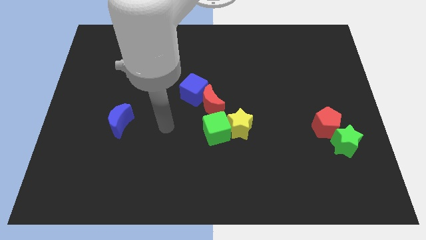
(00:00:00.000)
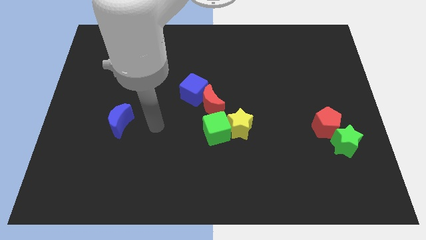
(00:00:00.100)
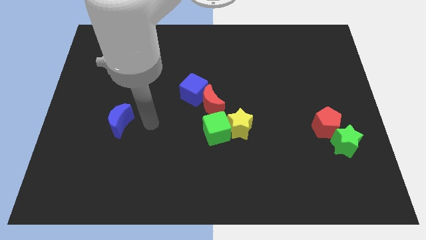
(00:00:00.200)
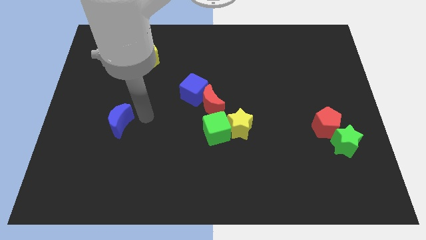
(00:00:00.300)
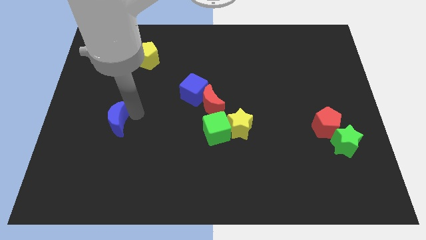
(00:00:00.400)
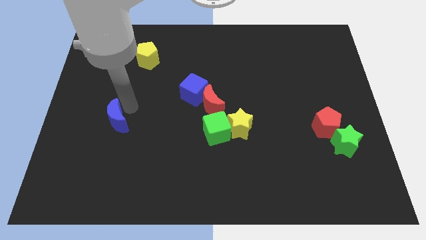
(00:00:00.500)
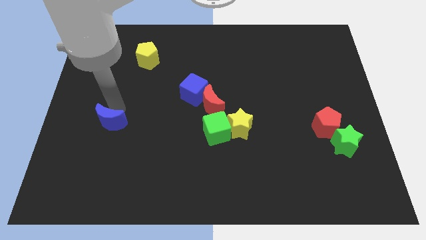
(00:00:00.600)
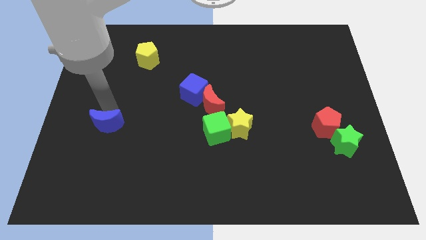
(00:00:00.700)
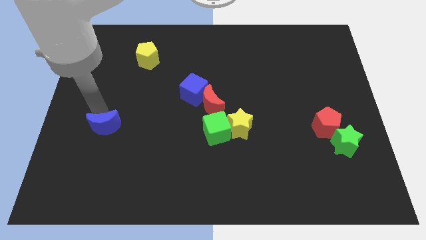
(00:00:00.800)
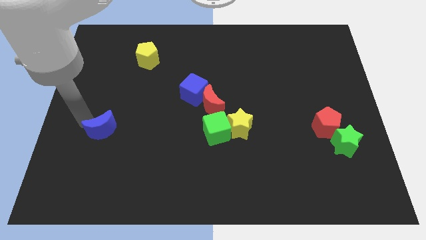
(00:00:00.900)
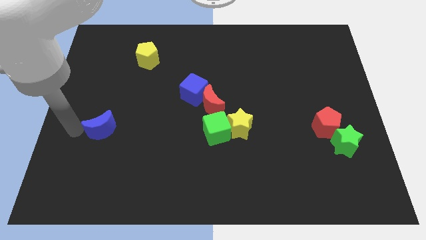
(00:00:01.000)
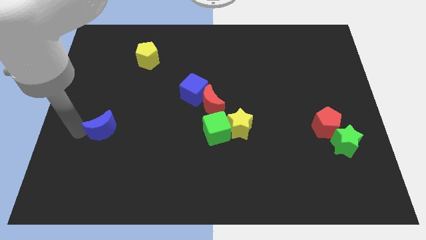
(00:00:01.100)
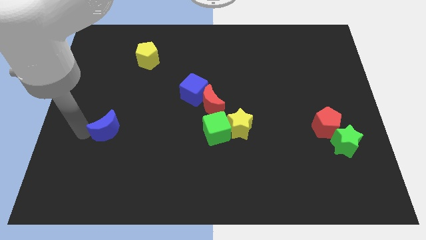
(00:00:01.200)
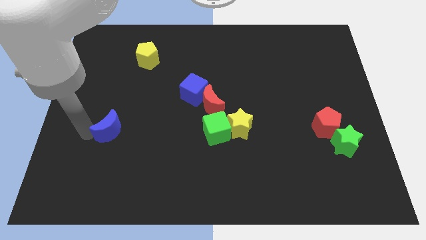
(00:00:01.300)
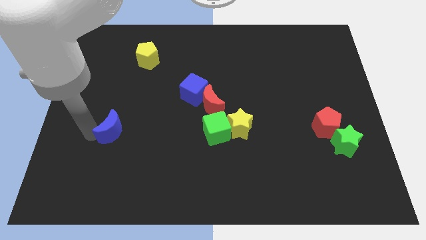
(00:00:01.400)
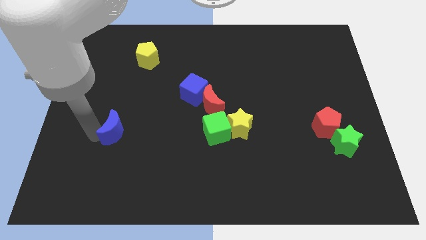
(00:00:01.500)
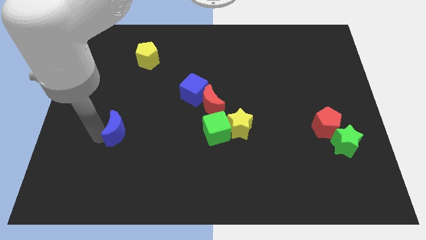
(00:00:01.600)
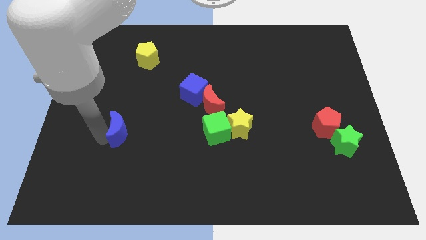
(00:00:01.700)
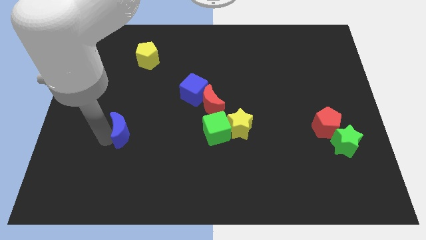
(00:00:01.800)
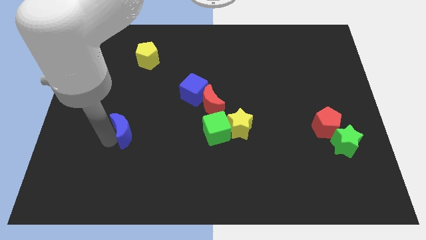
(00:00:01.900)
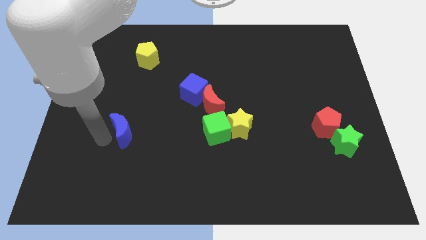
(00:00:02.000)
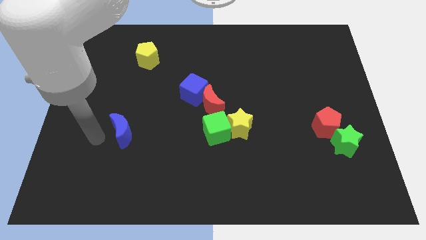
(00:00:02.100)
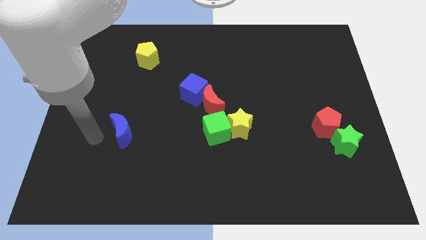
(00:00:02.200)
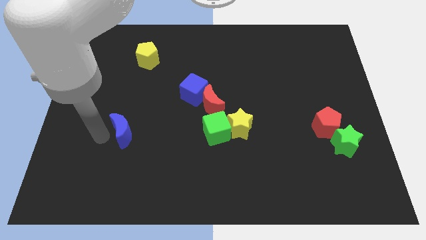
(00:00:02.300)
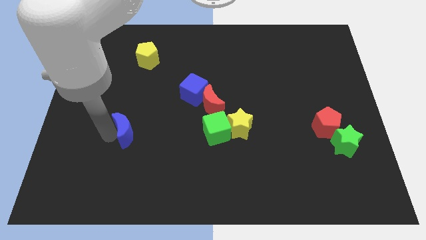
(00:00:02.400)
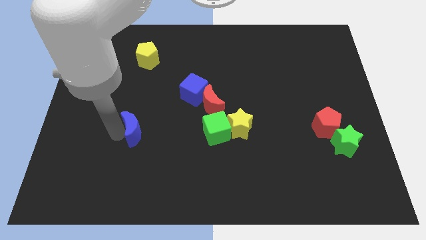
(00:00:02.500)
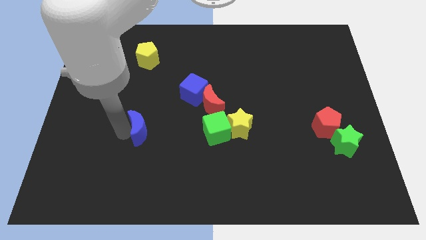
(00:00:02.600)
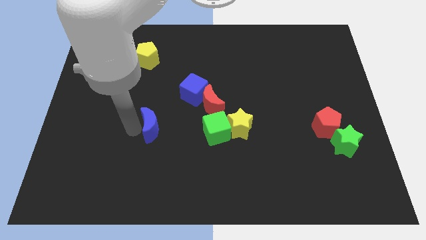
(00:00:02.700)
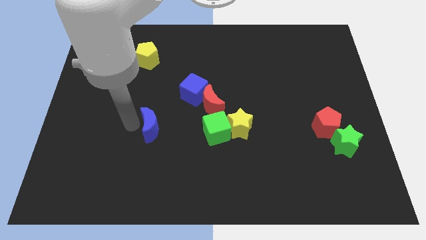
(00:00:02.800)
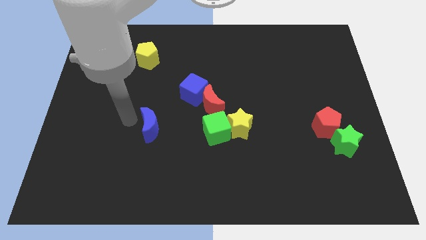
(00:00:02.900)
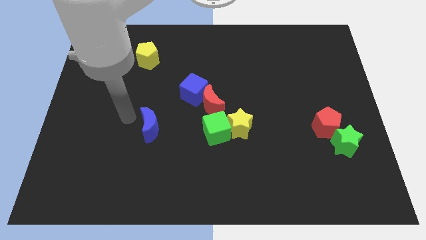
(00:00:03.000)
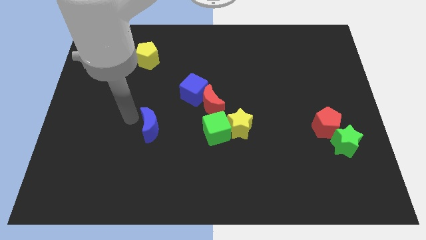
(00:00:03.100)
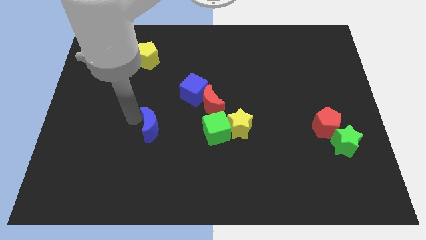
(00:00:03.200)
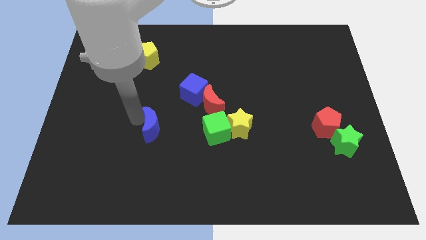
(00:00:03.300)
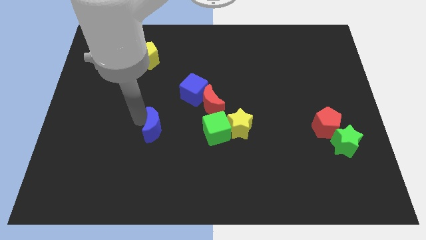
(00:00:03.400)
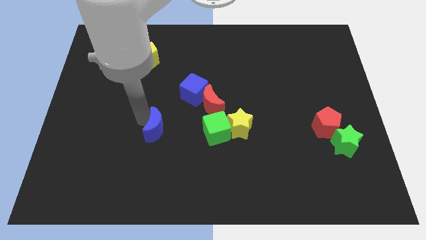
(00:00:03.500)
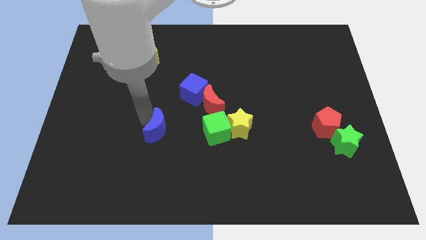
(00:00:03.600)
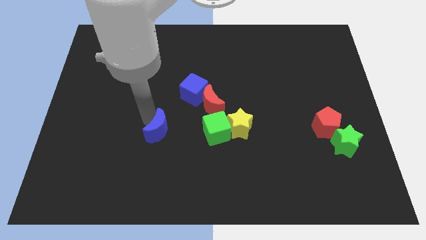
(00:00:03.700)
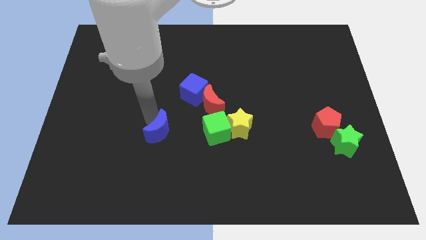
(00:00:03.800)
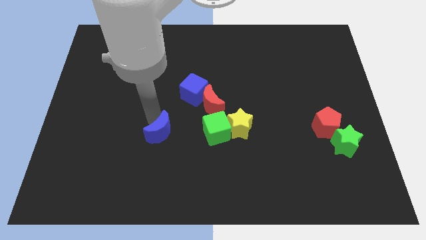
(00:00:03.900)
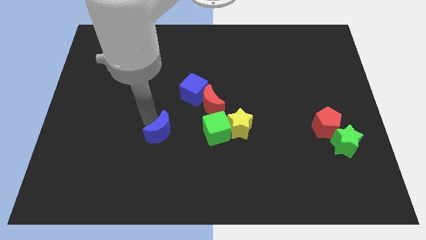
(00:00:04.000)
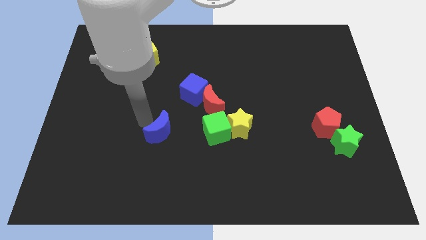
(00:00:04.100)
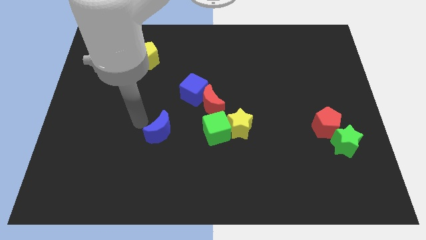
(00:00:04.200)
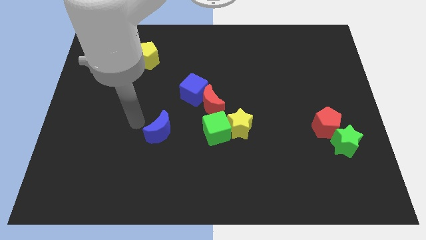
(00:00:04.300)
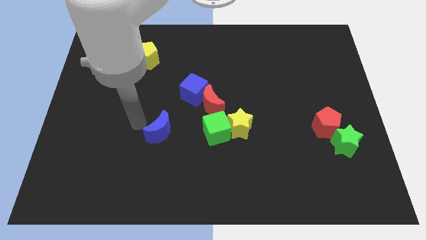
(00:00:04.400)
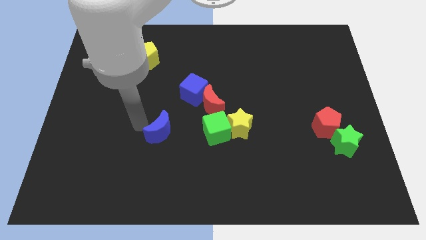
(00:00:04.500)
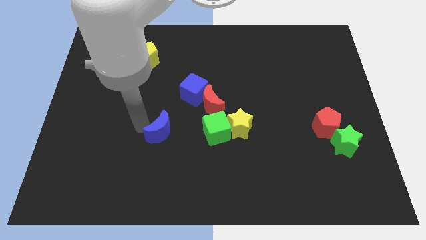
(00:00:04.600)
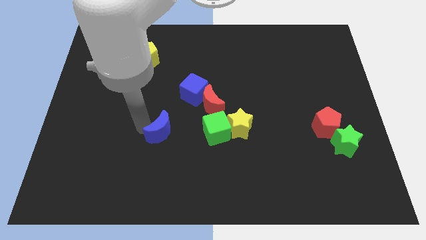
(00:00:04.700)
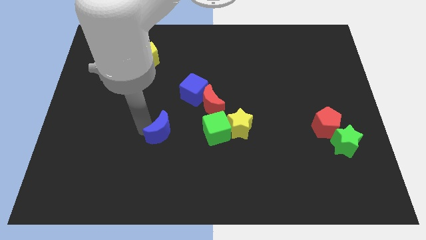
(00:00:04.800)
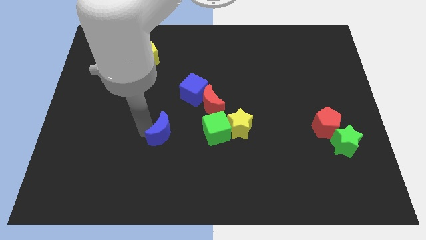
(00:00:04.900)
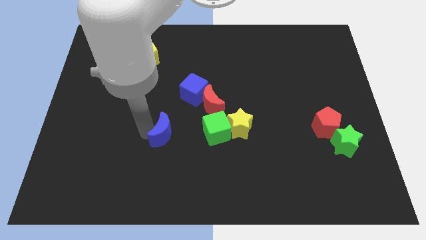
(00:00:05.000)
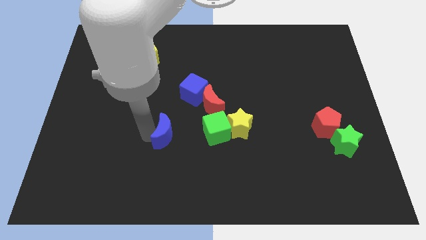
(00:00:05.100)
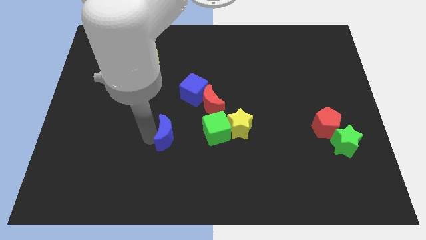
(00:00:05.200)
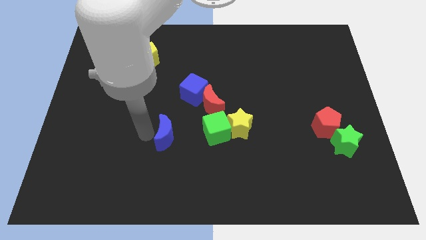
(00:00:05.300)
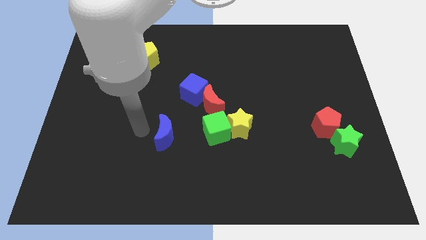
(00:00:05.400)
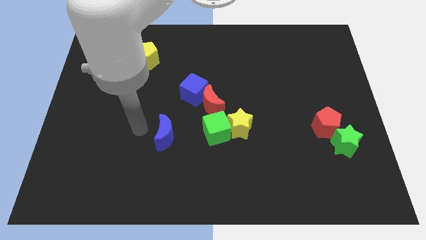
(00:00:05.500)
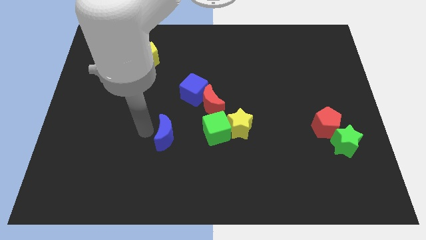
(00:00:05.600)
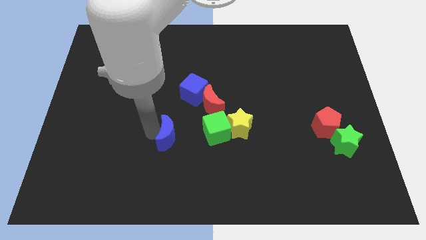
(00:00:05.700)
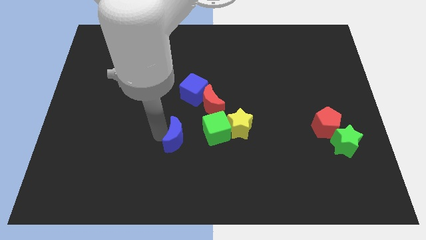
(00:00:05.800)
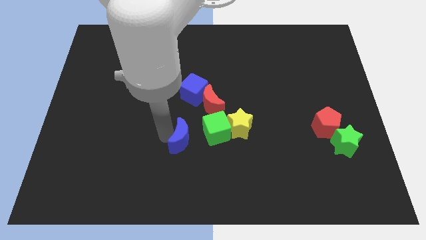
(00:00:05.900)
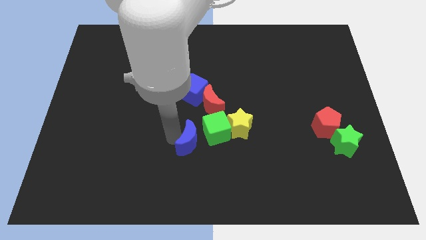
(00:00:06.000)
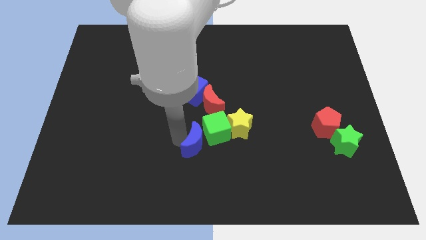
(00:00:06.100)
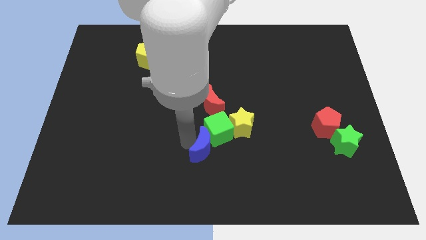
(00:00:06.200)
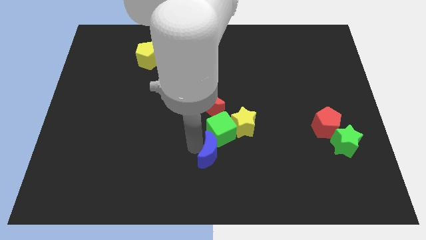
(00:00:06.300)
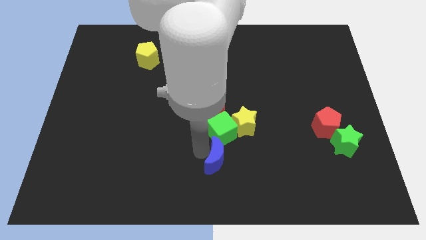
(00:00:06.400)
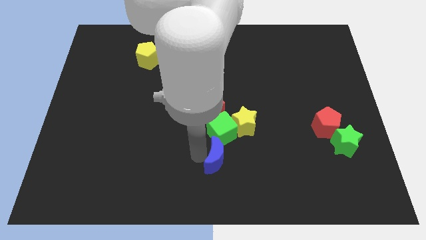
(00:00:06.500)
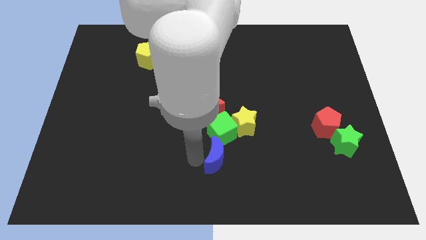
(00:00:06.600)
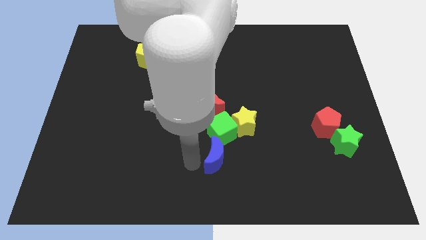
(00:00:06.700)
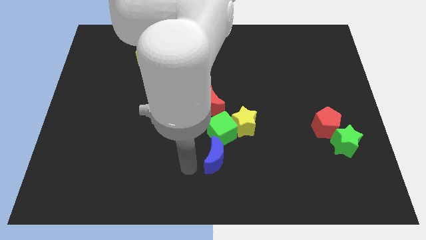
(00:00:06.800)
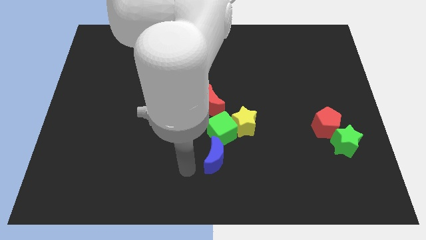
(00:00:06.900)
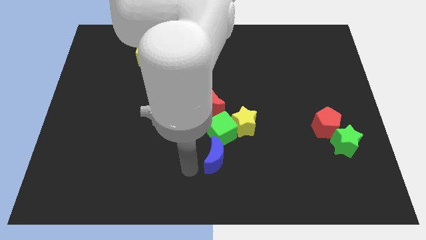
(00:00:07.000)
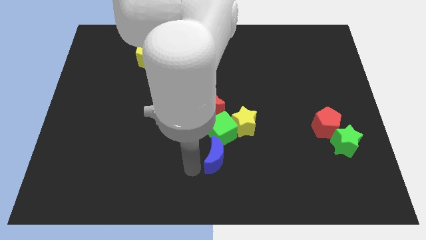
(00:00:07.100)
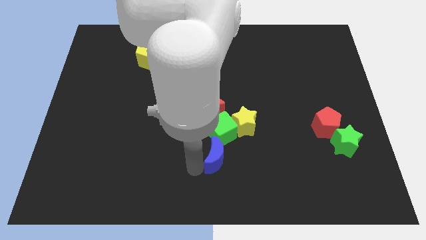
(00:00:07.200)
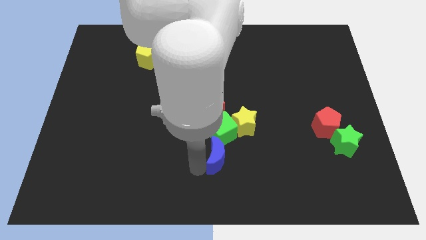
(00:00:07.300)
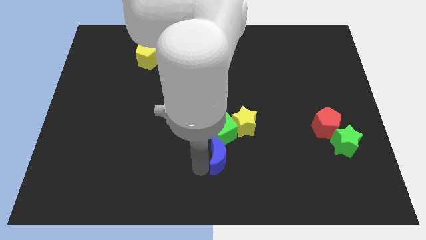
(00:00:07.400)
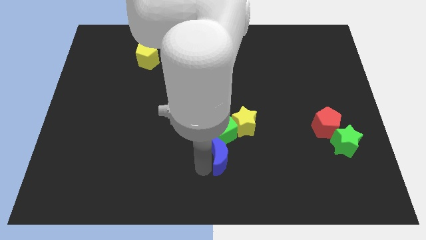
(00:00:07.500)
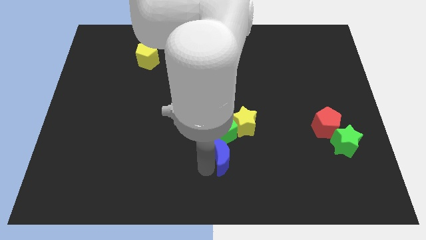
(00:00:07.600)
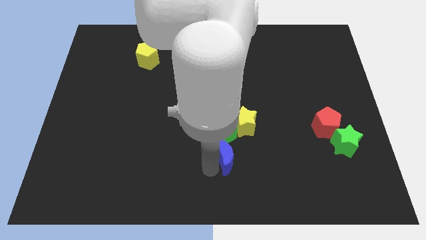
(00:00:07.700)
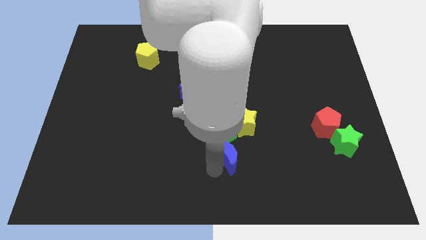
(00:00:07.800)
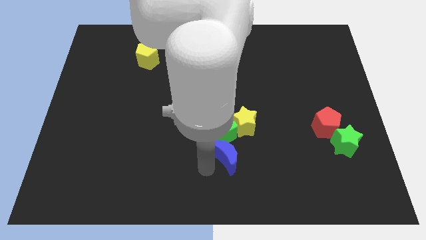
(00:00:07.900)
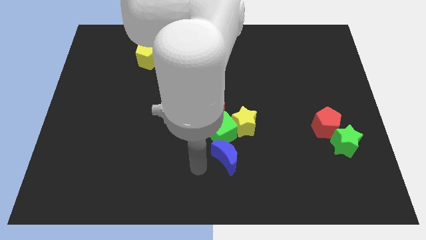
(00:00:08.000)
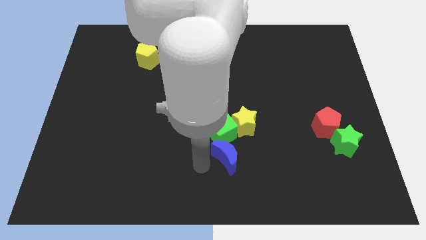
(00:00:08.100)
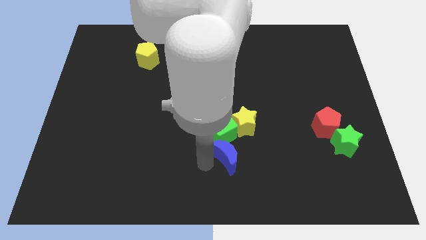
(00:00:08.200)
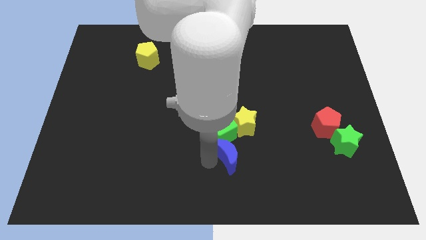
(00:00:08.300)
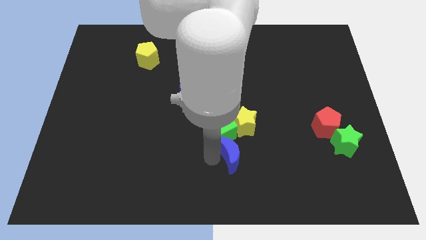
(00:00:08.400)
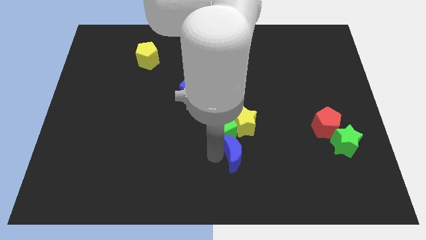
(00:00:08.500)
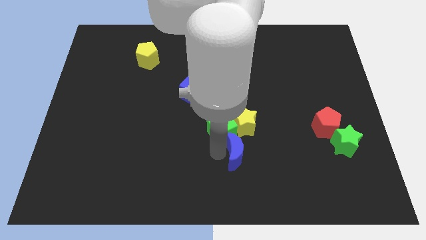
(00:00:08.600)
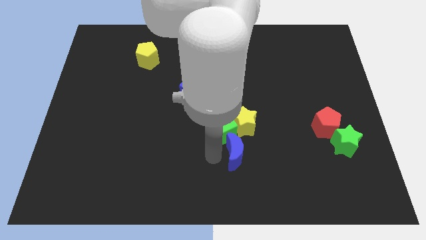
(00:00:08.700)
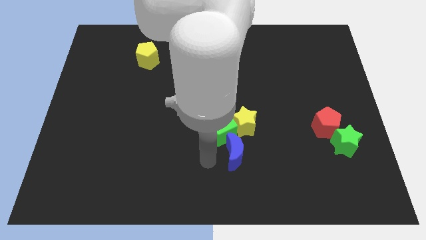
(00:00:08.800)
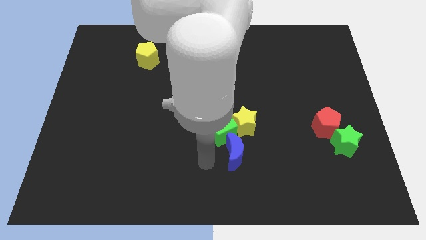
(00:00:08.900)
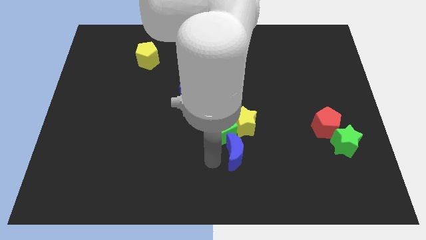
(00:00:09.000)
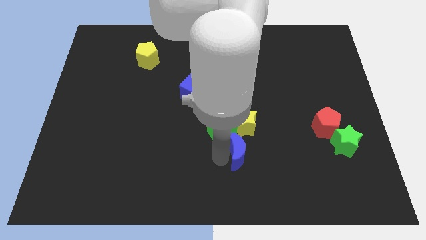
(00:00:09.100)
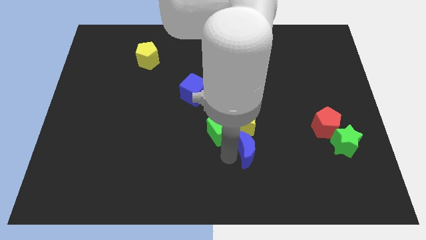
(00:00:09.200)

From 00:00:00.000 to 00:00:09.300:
push the blue moon to the bottom right side of the yellow star
